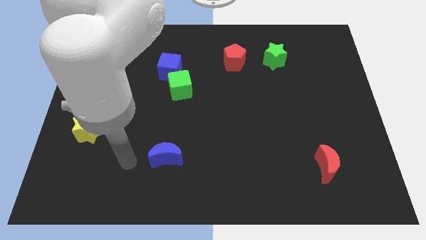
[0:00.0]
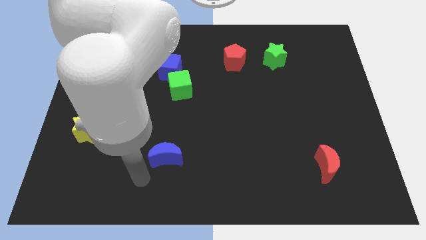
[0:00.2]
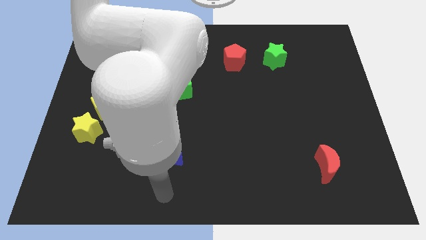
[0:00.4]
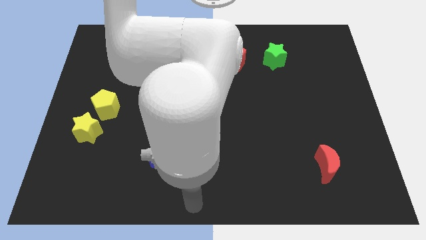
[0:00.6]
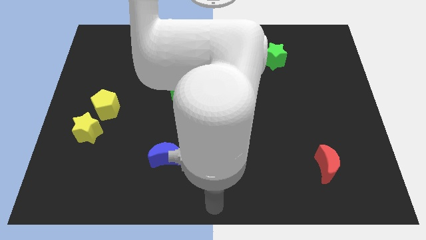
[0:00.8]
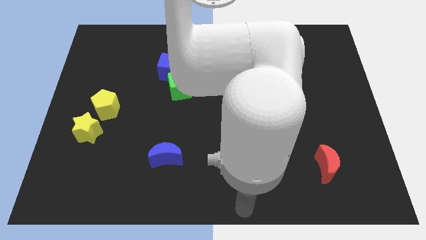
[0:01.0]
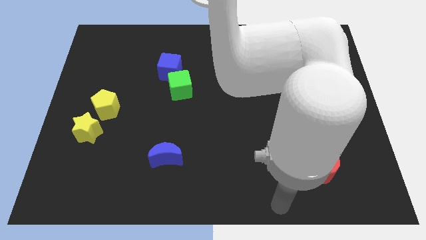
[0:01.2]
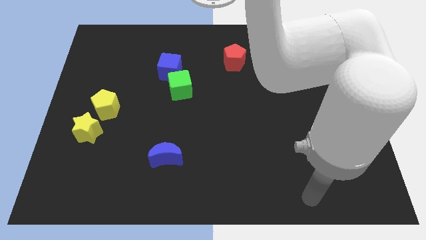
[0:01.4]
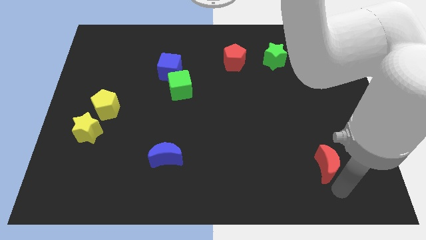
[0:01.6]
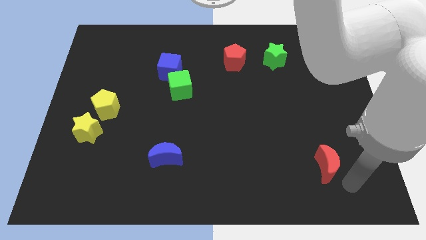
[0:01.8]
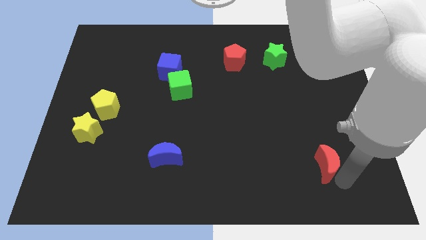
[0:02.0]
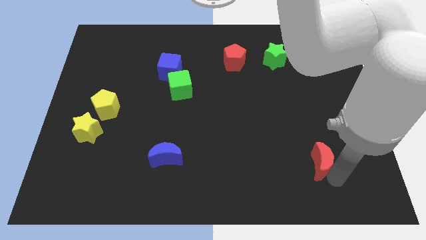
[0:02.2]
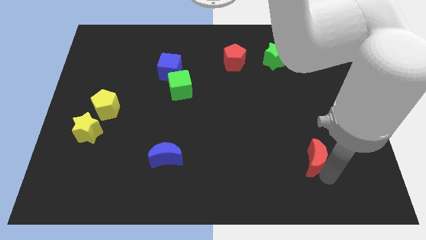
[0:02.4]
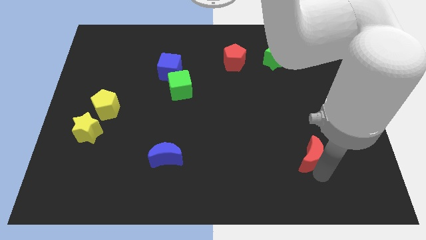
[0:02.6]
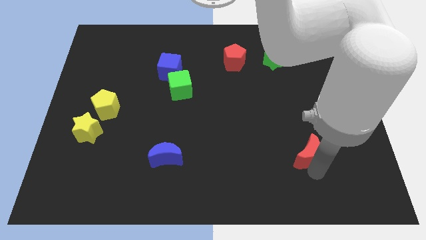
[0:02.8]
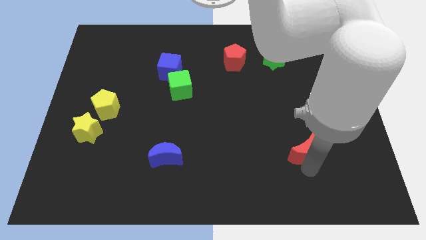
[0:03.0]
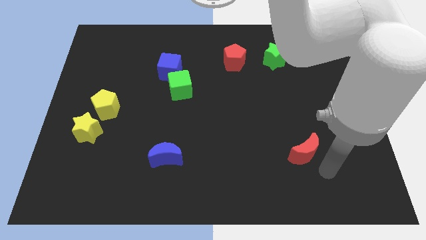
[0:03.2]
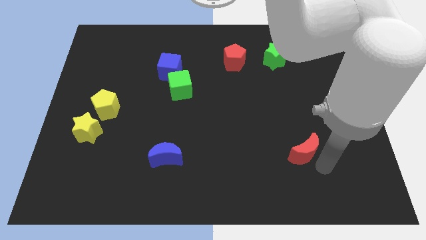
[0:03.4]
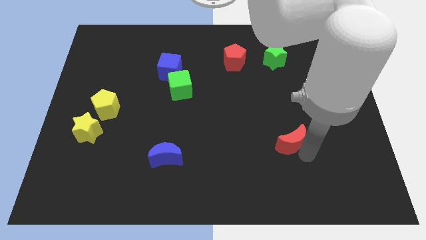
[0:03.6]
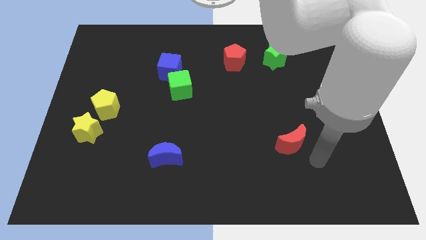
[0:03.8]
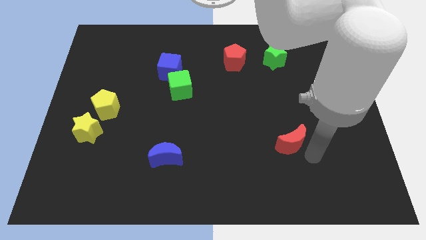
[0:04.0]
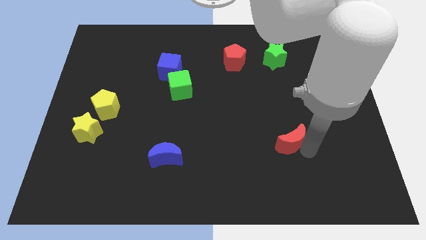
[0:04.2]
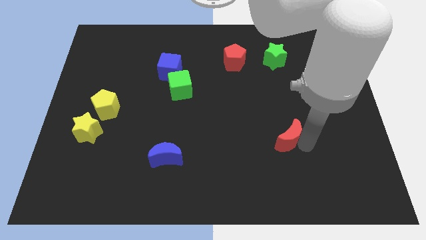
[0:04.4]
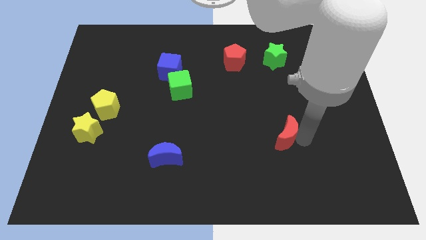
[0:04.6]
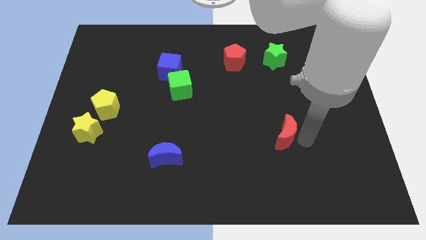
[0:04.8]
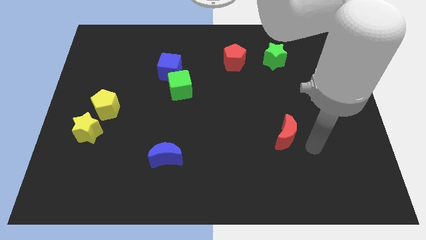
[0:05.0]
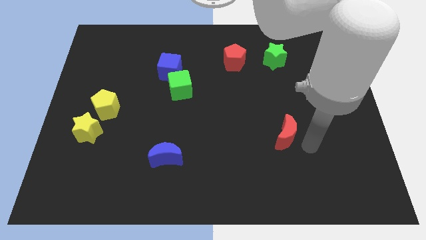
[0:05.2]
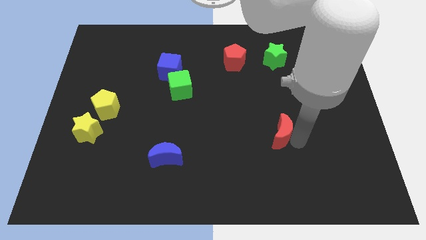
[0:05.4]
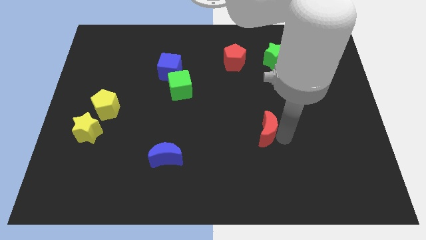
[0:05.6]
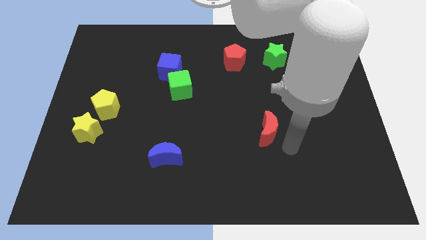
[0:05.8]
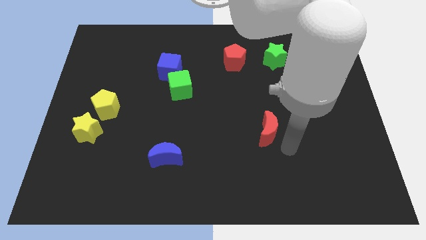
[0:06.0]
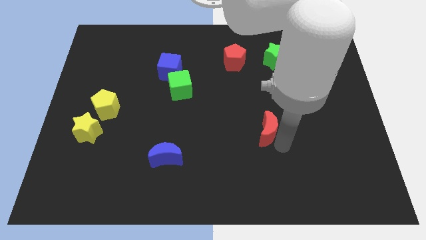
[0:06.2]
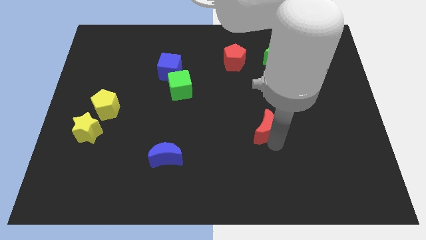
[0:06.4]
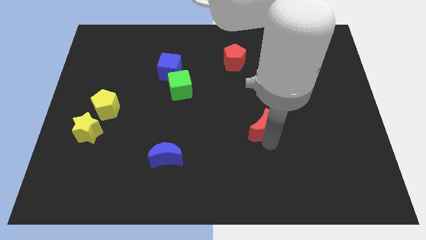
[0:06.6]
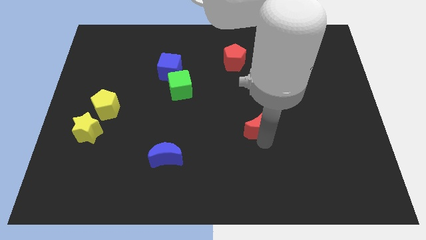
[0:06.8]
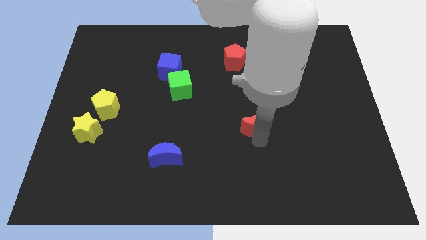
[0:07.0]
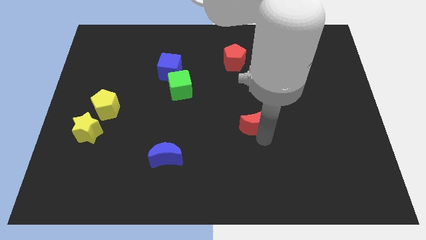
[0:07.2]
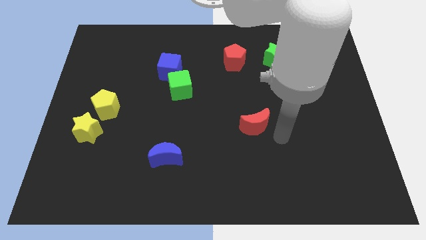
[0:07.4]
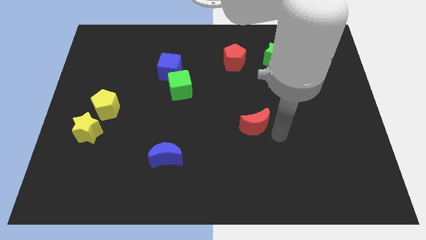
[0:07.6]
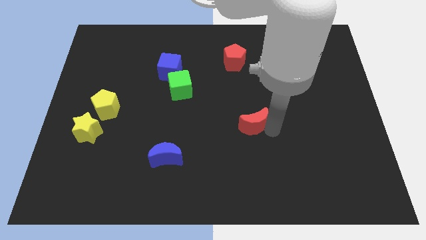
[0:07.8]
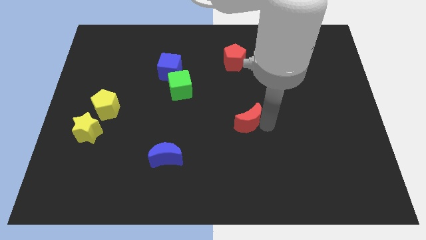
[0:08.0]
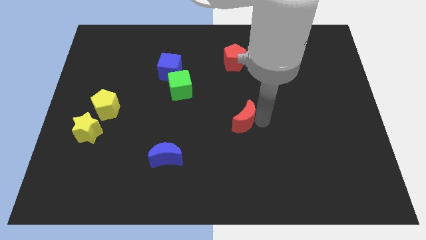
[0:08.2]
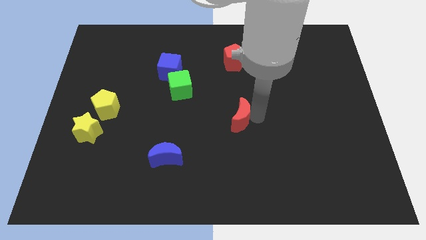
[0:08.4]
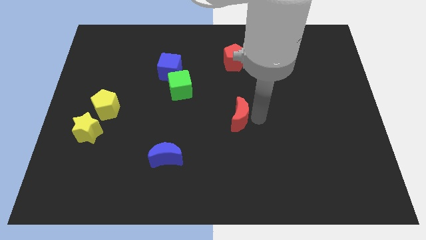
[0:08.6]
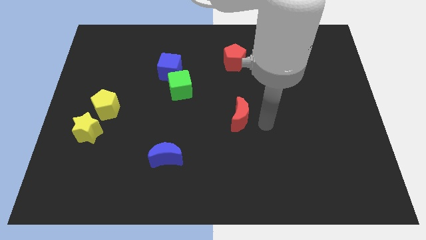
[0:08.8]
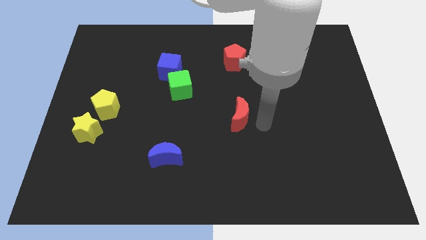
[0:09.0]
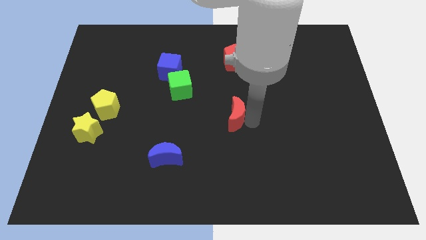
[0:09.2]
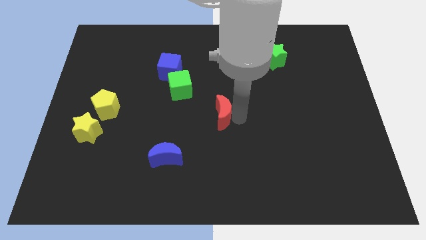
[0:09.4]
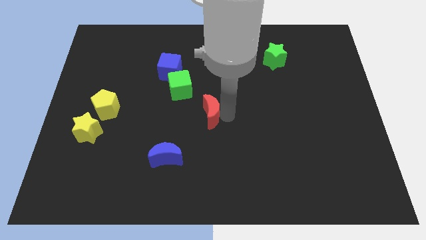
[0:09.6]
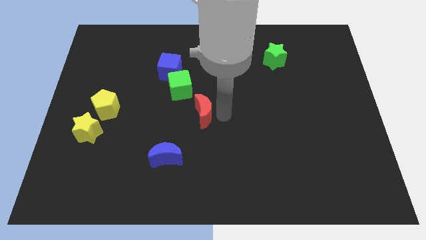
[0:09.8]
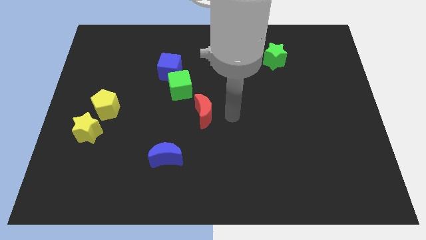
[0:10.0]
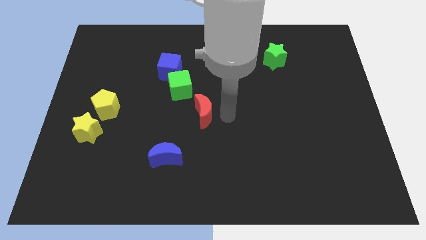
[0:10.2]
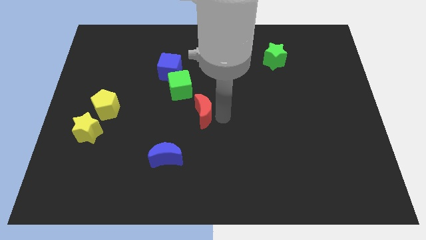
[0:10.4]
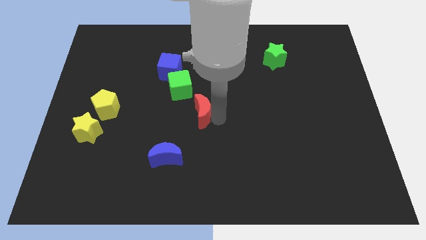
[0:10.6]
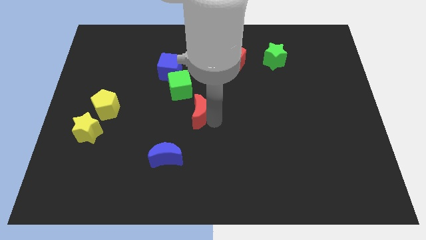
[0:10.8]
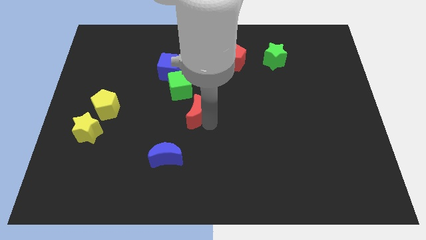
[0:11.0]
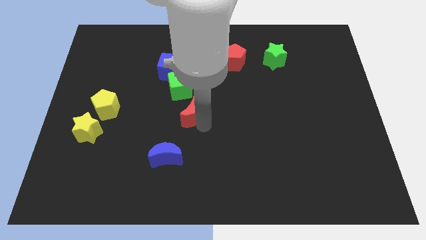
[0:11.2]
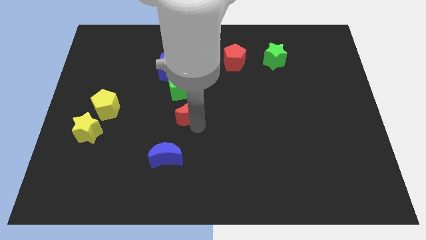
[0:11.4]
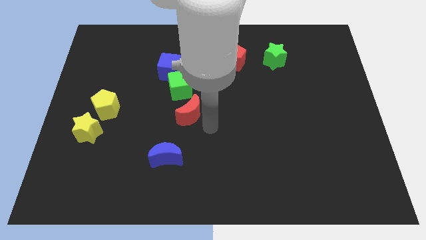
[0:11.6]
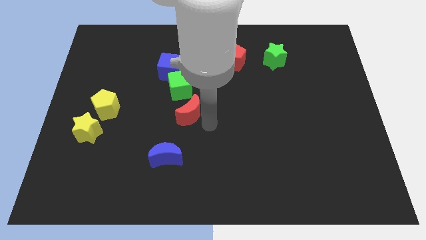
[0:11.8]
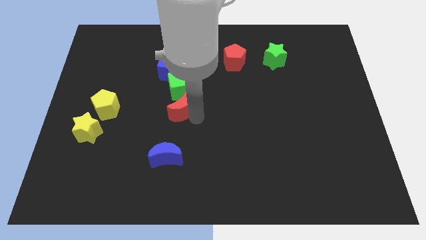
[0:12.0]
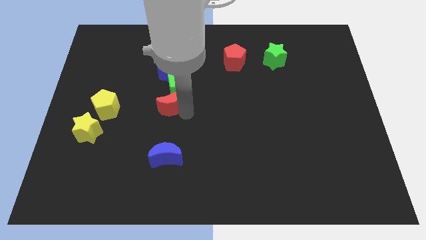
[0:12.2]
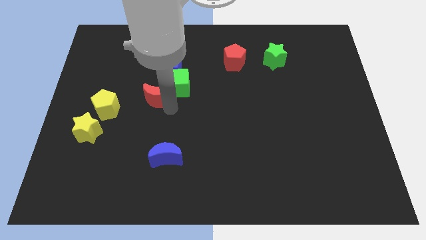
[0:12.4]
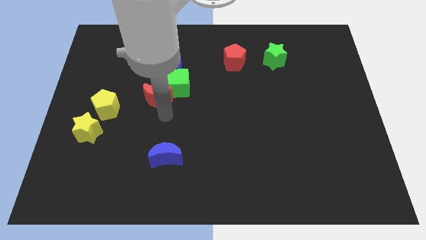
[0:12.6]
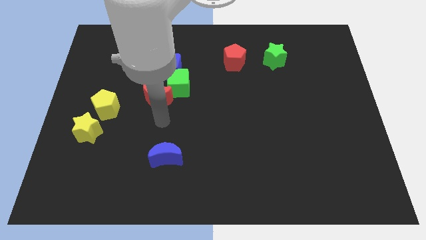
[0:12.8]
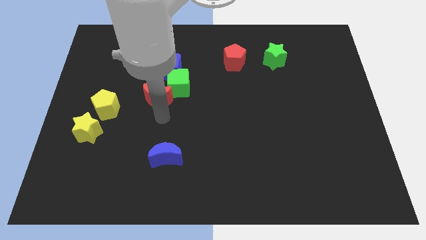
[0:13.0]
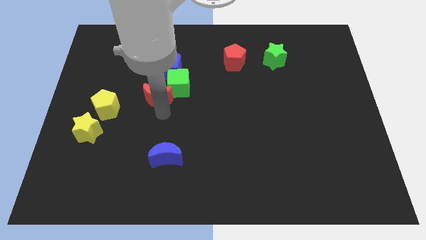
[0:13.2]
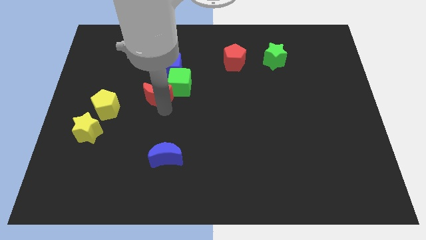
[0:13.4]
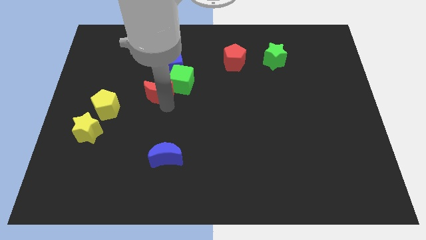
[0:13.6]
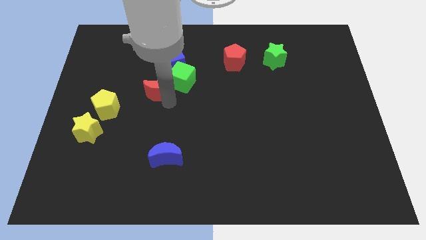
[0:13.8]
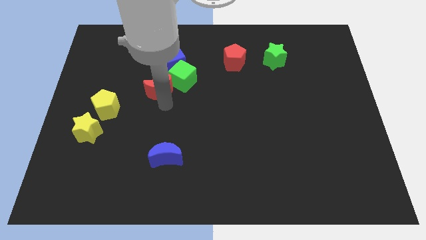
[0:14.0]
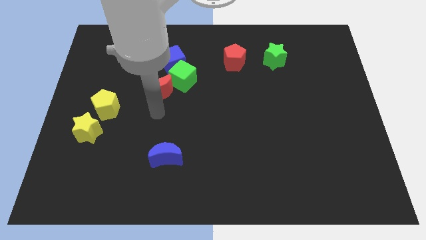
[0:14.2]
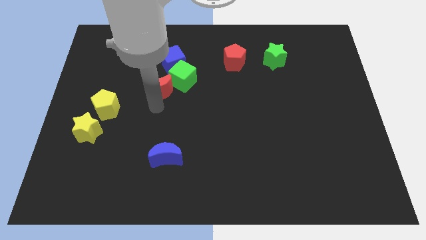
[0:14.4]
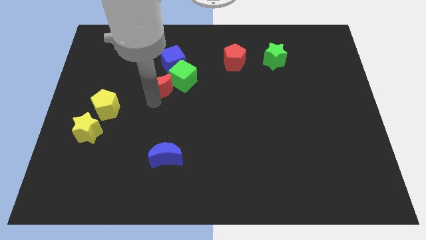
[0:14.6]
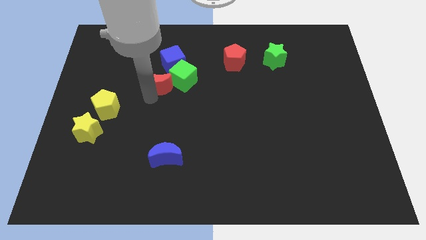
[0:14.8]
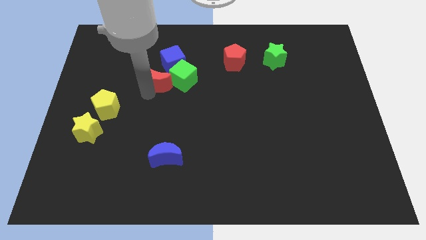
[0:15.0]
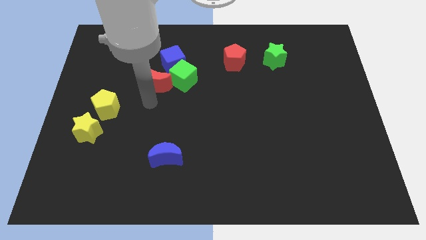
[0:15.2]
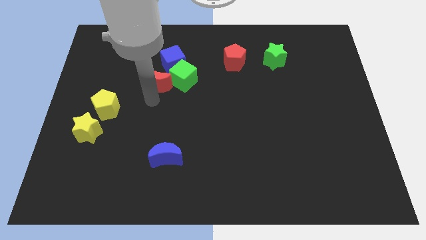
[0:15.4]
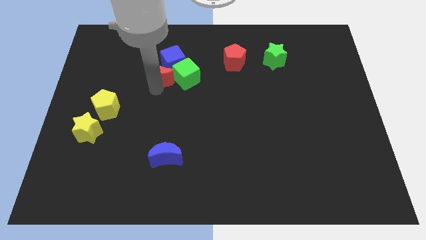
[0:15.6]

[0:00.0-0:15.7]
put the red moon diagonally up and to the left of the green cube
